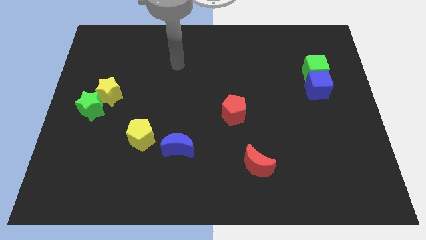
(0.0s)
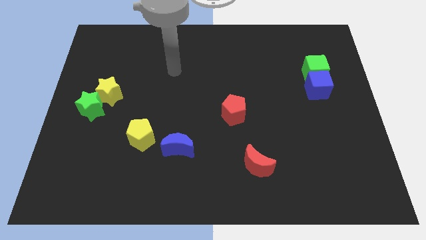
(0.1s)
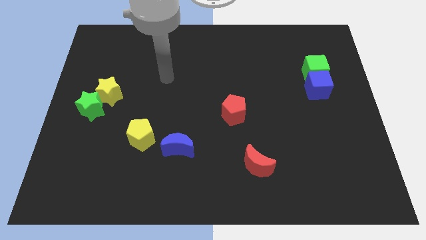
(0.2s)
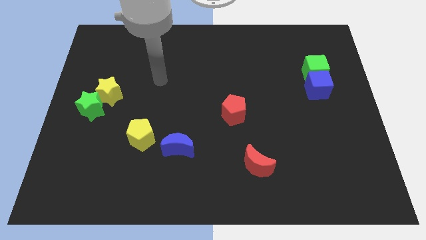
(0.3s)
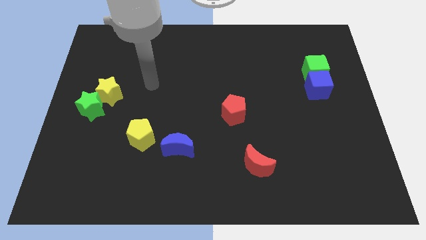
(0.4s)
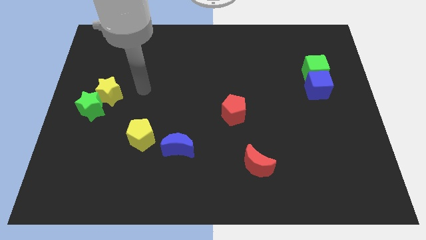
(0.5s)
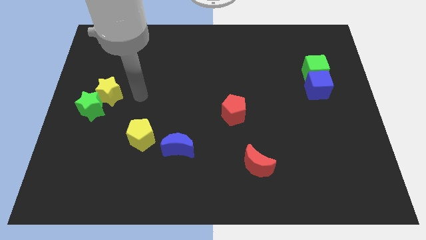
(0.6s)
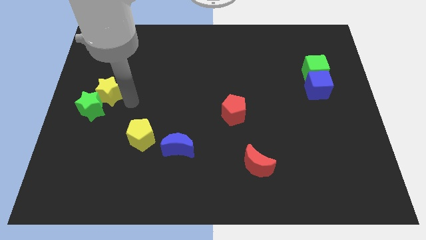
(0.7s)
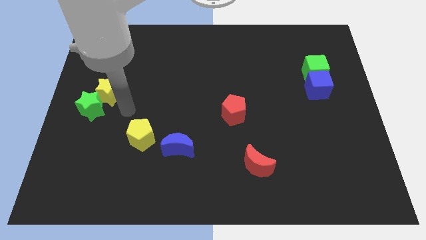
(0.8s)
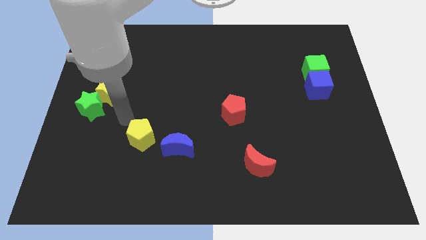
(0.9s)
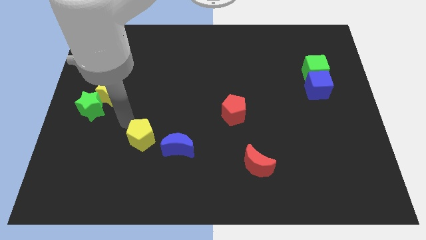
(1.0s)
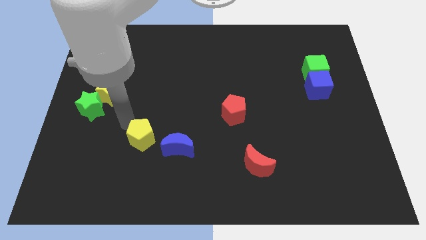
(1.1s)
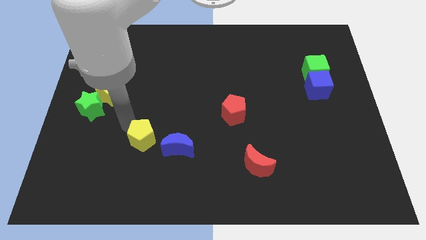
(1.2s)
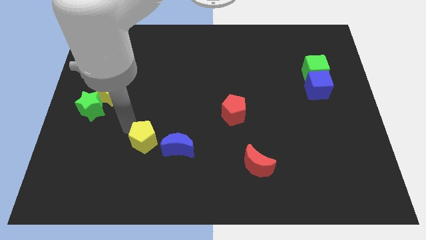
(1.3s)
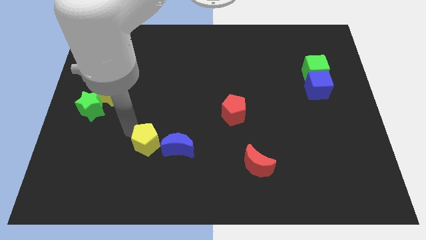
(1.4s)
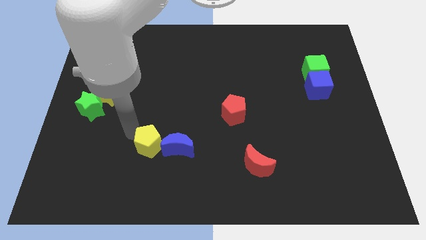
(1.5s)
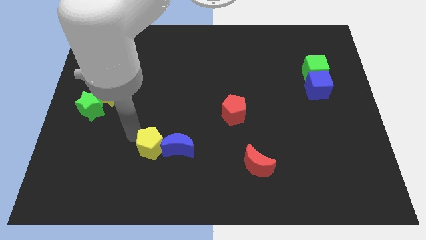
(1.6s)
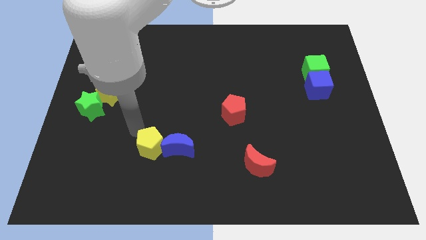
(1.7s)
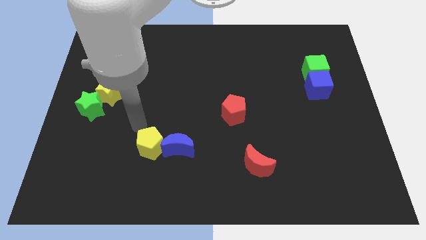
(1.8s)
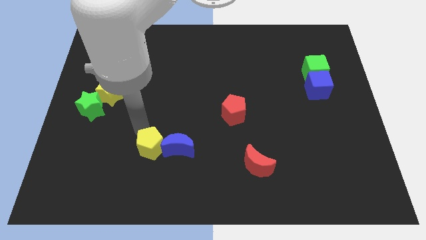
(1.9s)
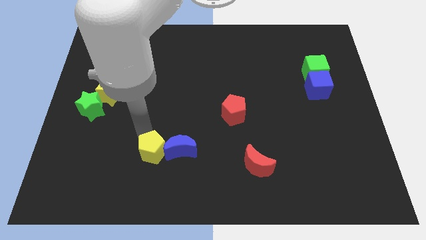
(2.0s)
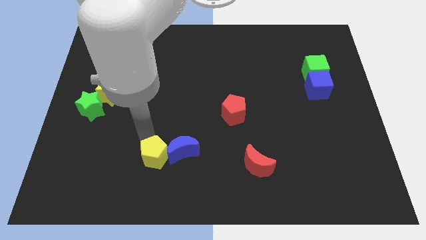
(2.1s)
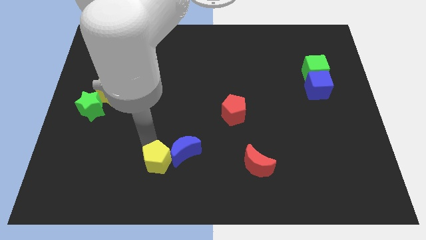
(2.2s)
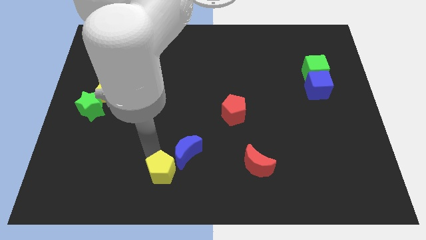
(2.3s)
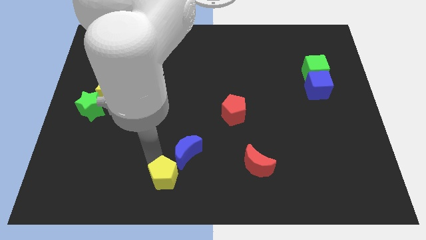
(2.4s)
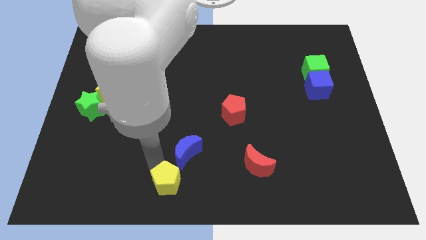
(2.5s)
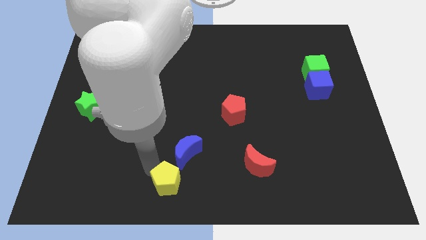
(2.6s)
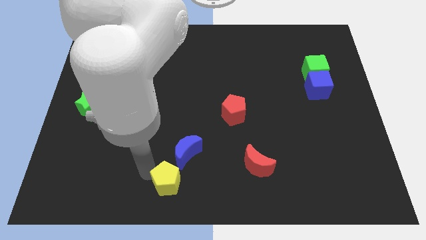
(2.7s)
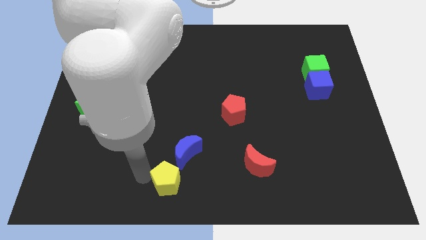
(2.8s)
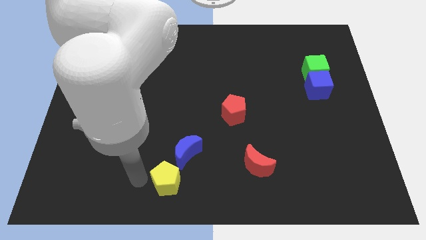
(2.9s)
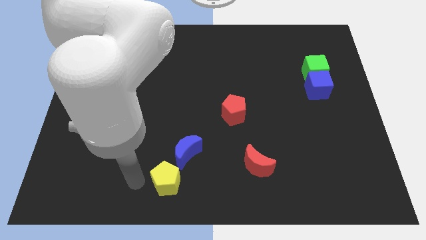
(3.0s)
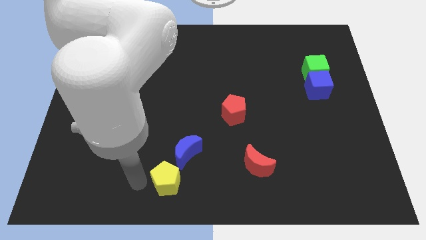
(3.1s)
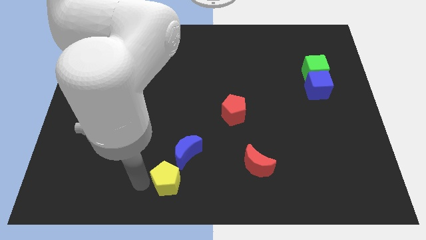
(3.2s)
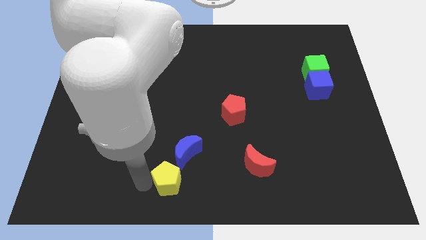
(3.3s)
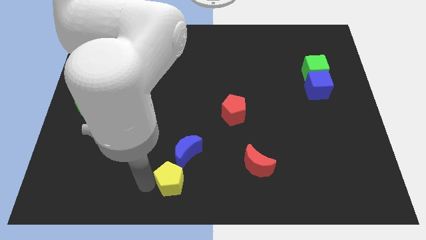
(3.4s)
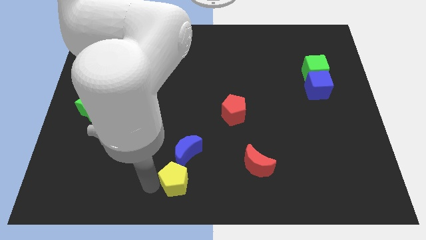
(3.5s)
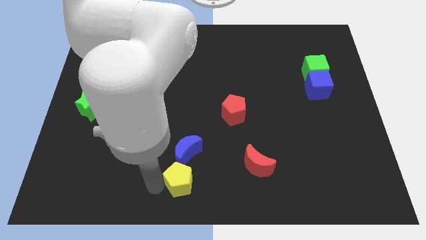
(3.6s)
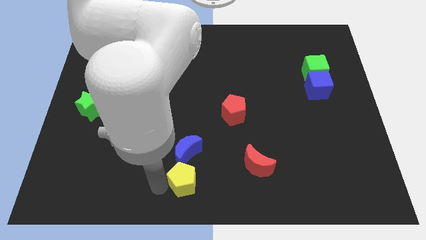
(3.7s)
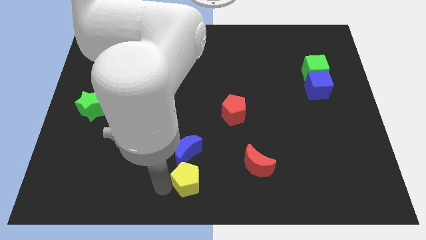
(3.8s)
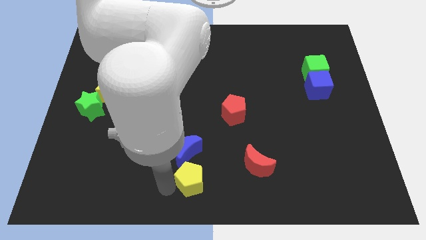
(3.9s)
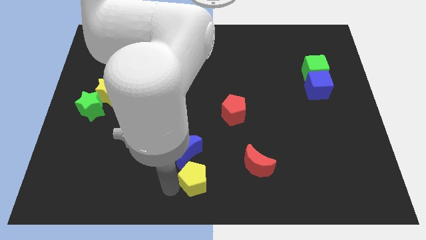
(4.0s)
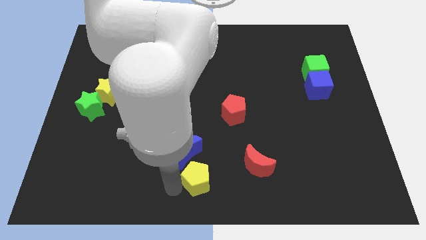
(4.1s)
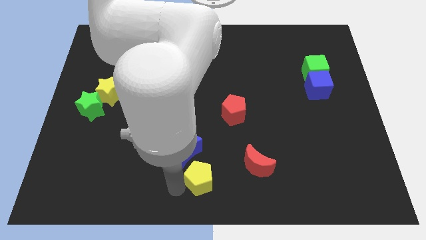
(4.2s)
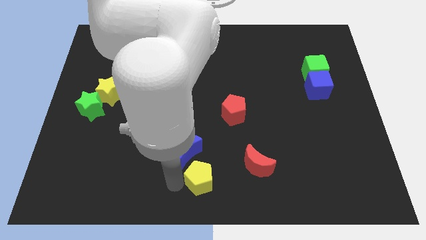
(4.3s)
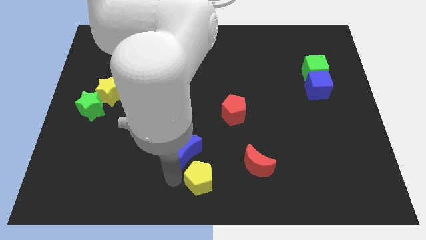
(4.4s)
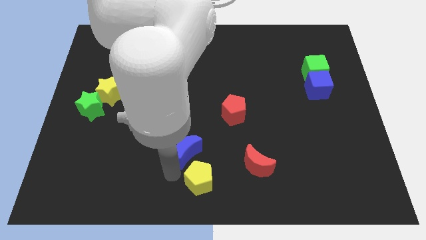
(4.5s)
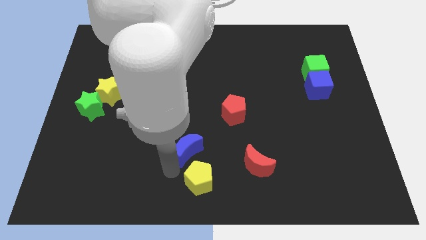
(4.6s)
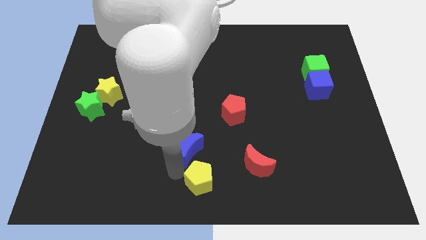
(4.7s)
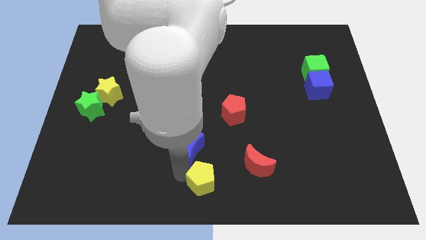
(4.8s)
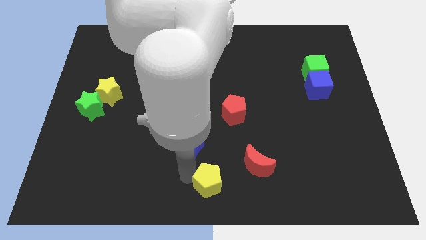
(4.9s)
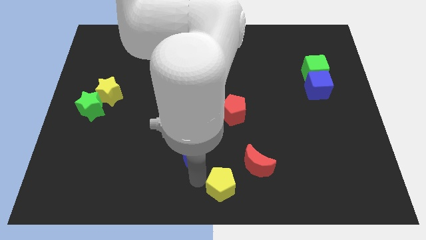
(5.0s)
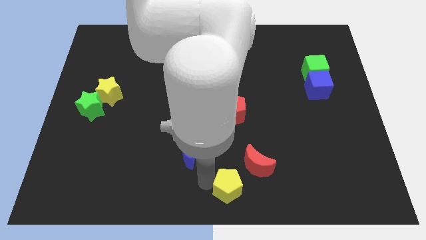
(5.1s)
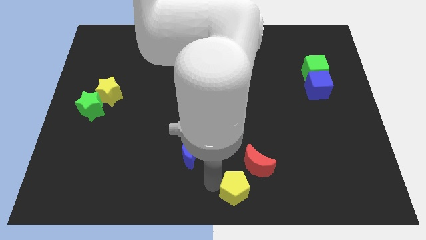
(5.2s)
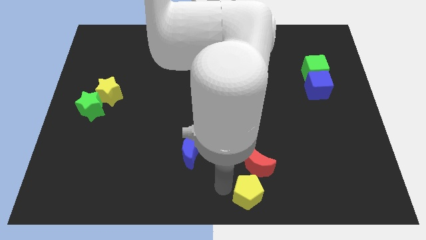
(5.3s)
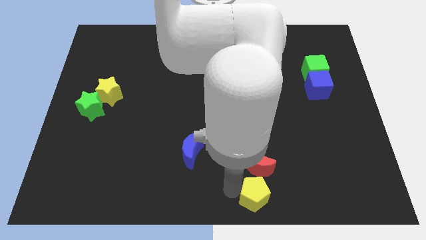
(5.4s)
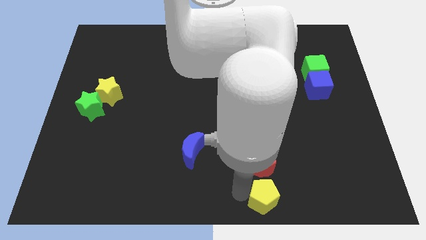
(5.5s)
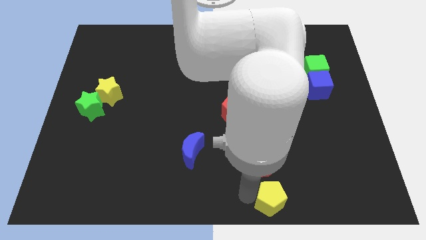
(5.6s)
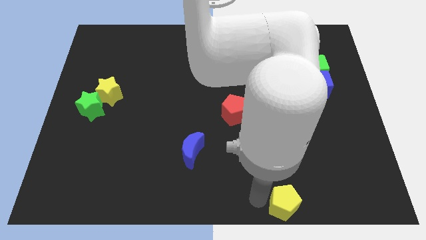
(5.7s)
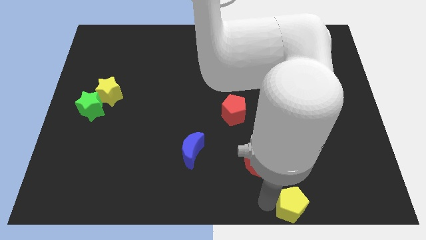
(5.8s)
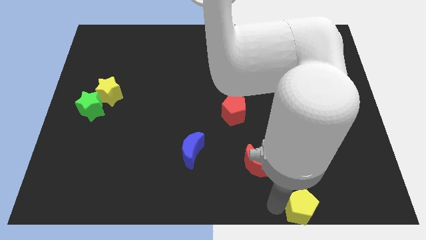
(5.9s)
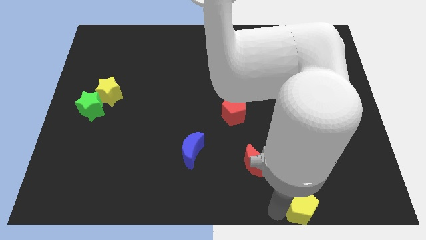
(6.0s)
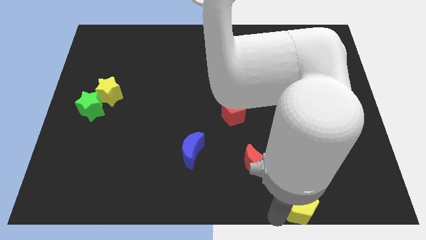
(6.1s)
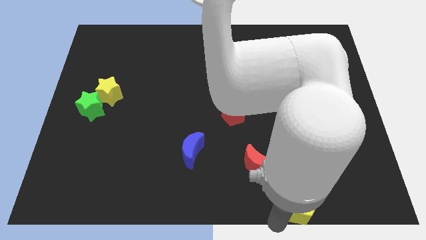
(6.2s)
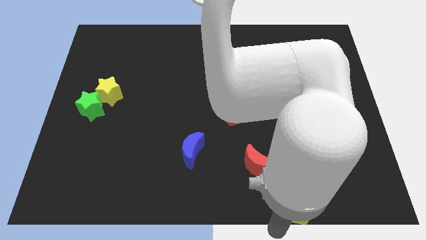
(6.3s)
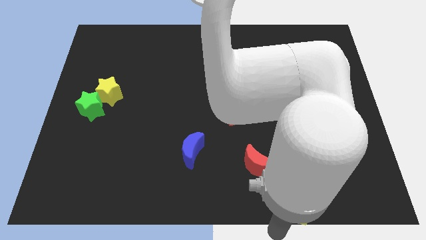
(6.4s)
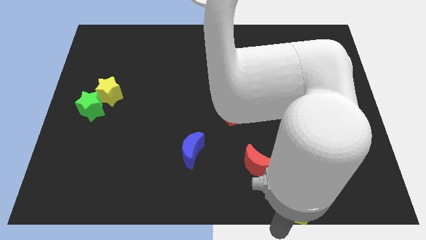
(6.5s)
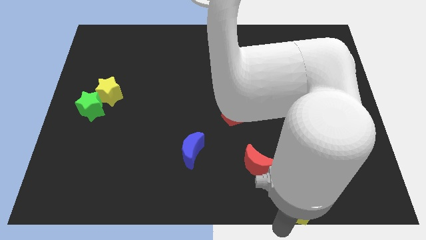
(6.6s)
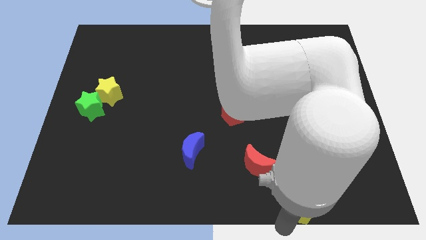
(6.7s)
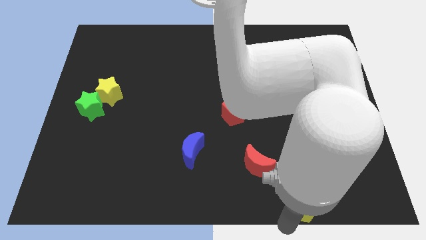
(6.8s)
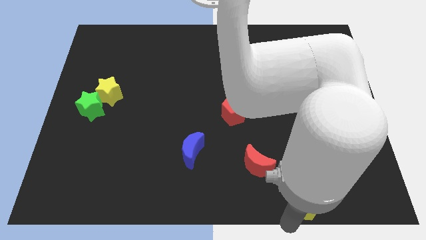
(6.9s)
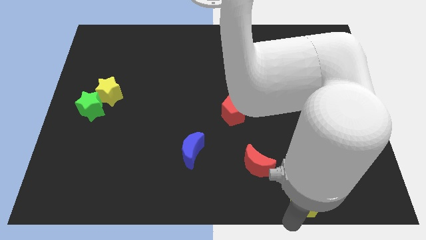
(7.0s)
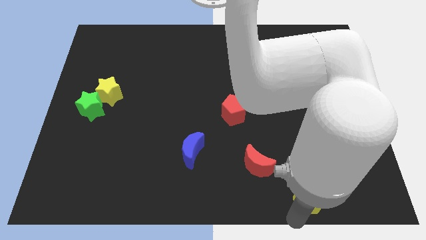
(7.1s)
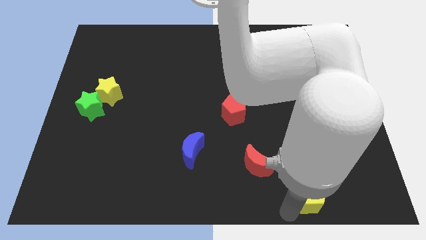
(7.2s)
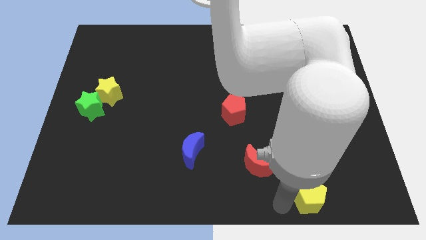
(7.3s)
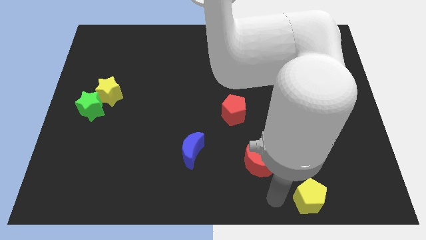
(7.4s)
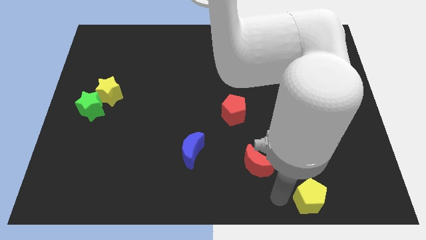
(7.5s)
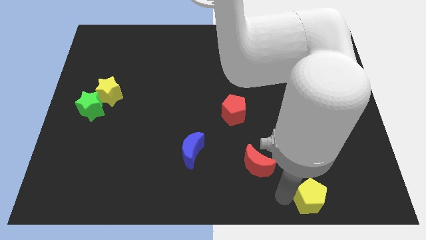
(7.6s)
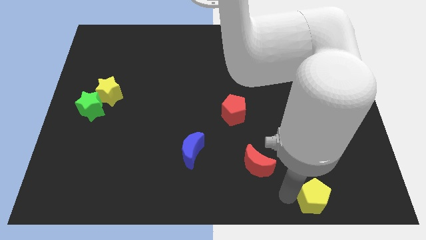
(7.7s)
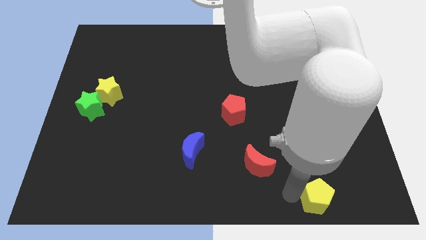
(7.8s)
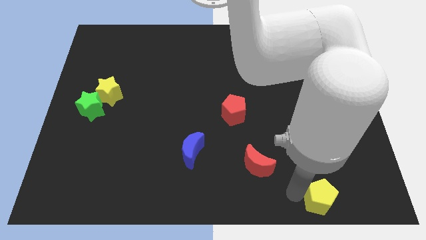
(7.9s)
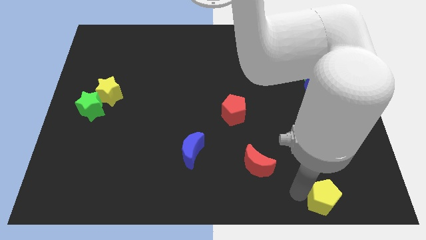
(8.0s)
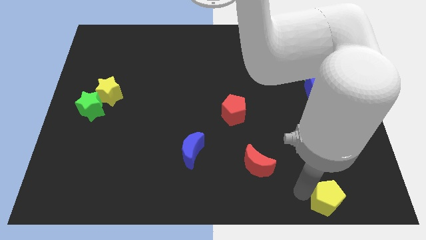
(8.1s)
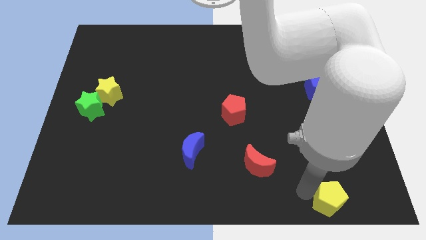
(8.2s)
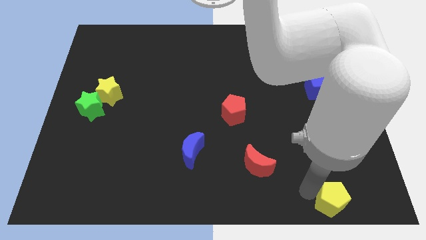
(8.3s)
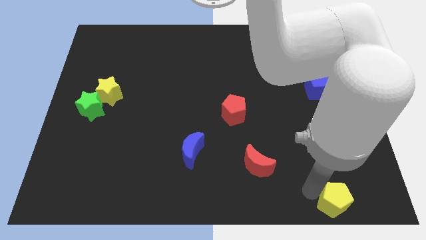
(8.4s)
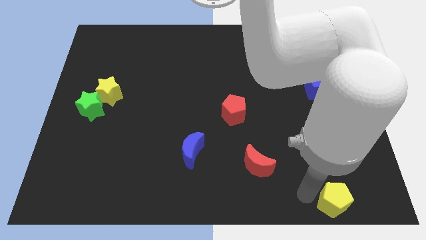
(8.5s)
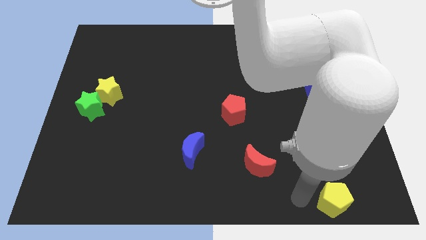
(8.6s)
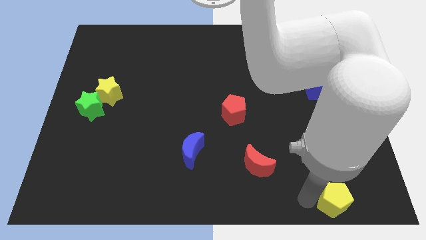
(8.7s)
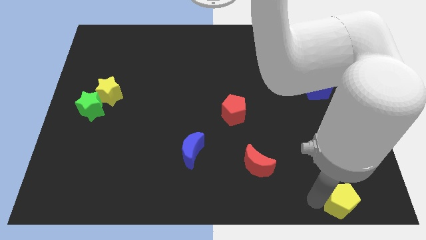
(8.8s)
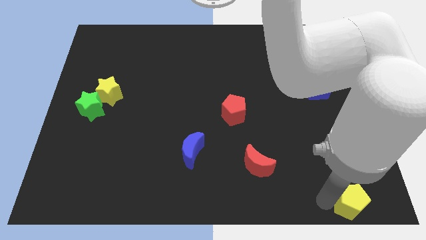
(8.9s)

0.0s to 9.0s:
slide the yellow pentagon to the lower right corner
